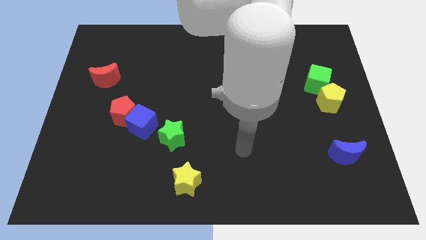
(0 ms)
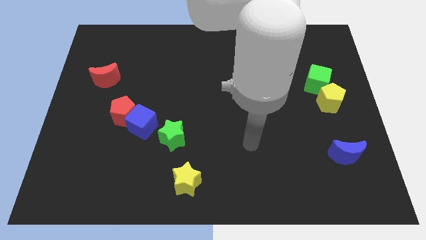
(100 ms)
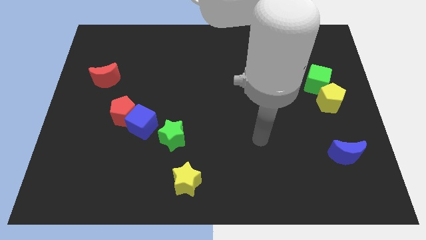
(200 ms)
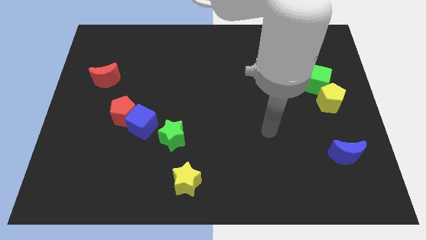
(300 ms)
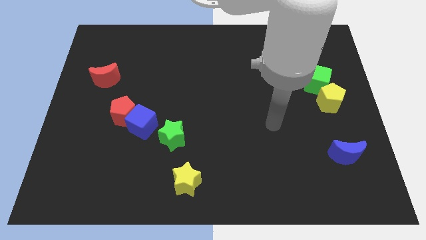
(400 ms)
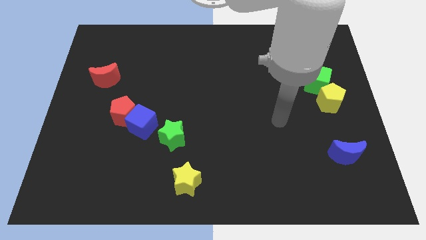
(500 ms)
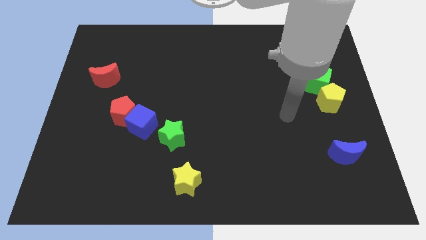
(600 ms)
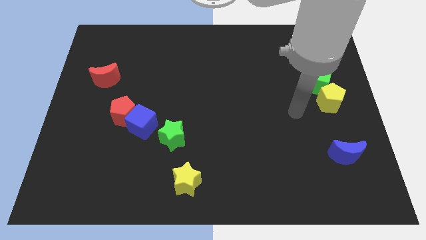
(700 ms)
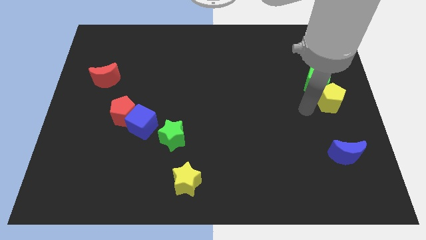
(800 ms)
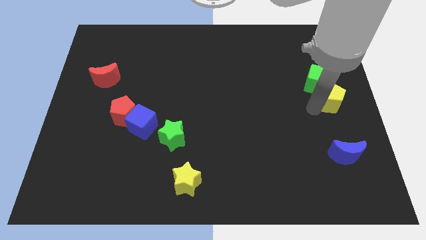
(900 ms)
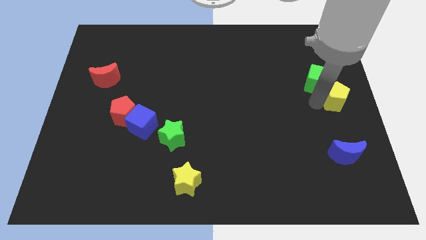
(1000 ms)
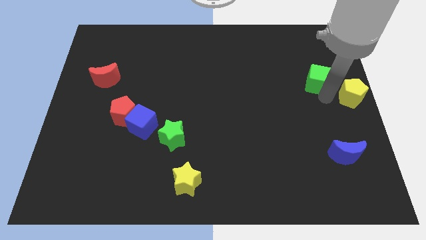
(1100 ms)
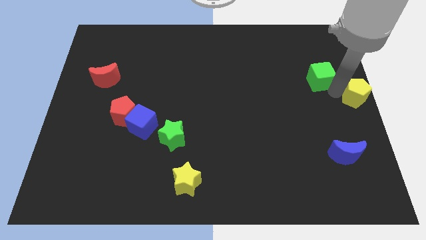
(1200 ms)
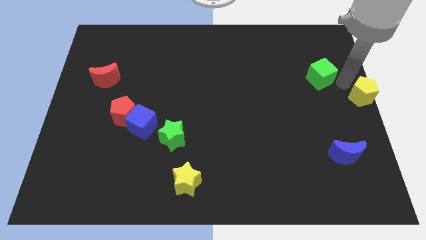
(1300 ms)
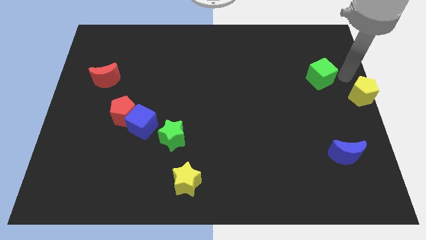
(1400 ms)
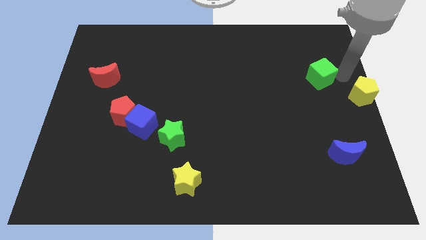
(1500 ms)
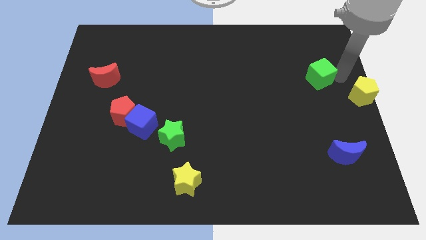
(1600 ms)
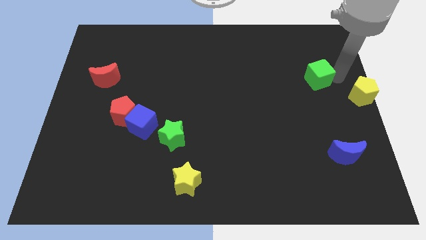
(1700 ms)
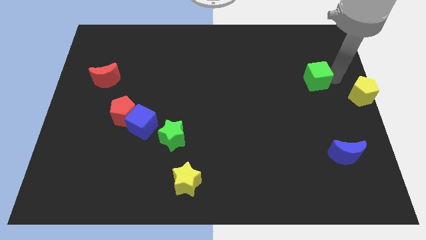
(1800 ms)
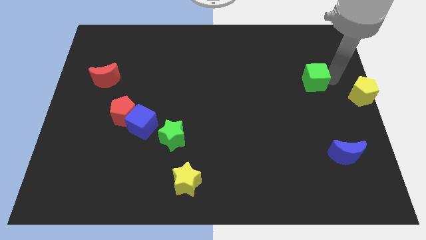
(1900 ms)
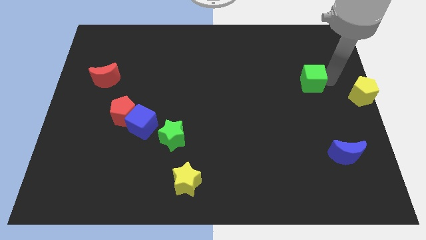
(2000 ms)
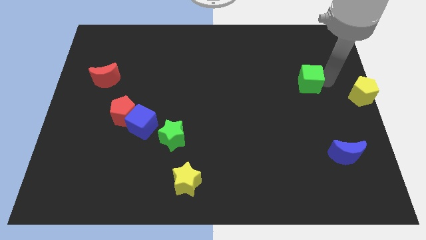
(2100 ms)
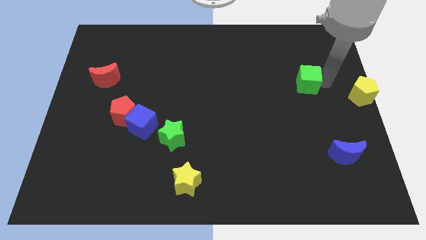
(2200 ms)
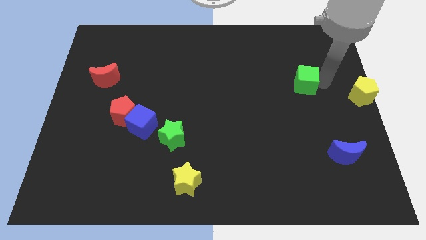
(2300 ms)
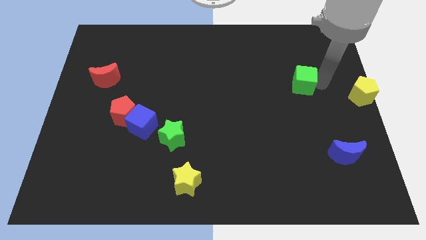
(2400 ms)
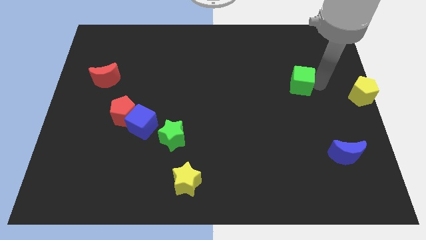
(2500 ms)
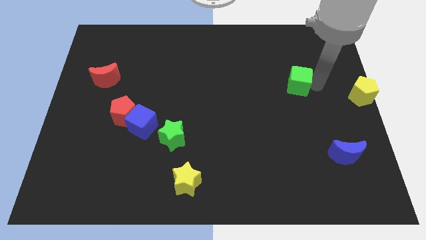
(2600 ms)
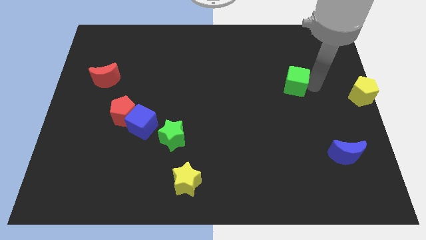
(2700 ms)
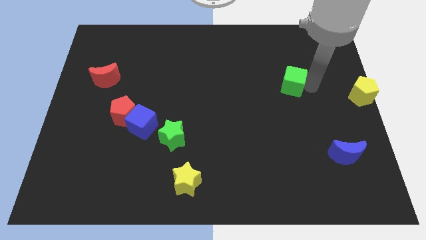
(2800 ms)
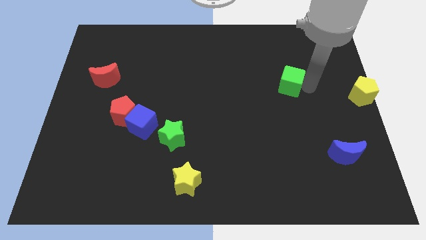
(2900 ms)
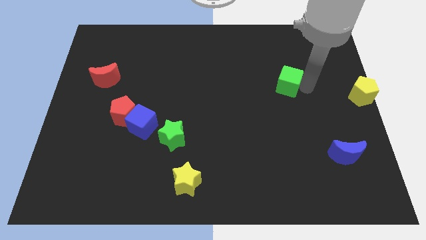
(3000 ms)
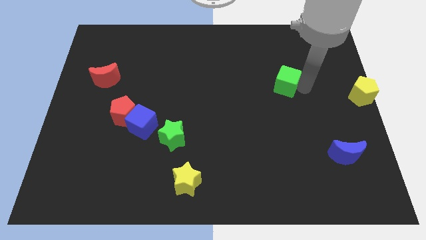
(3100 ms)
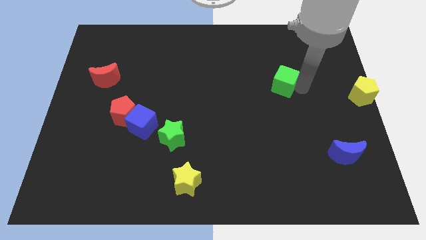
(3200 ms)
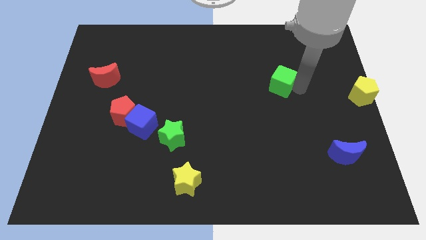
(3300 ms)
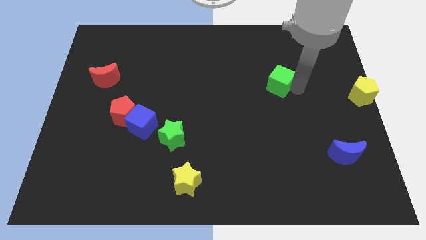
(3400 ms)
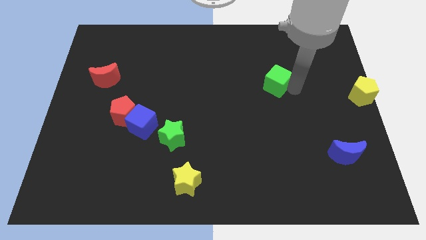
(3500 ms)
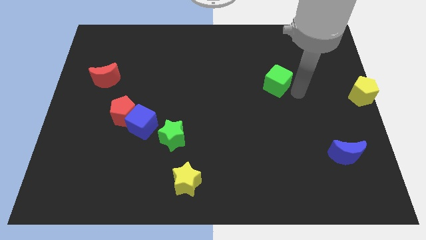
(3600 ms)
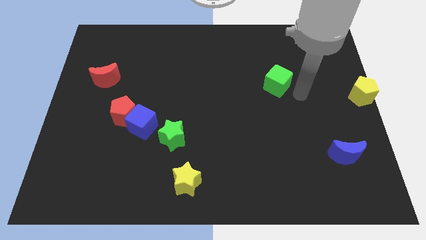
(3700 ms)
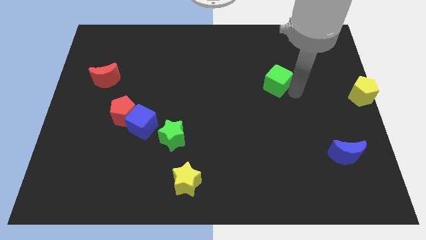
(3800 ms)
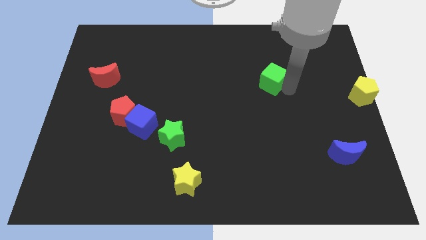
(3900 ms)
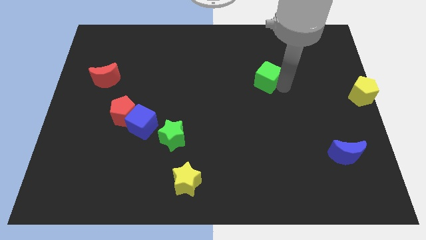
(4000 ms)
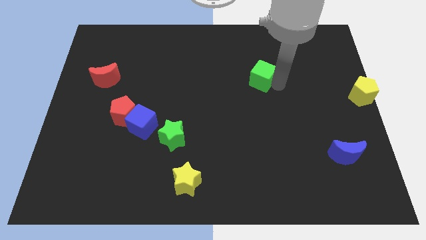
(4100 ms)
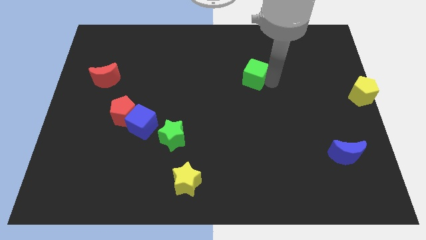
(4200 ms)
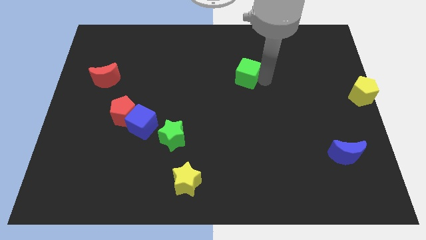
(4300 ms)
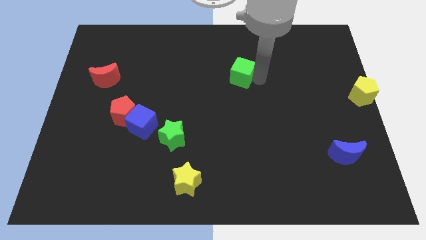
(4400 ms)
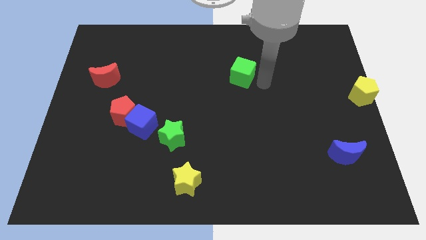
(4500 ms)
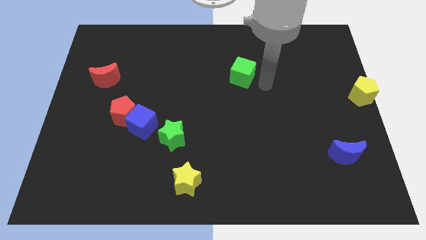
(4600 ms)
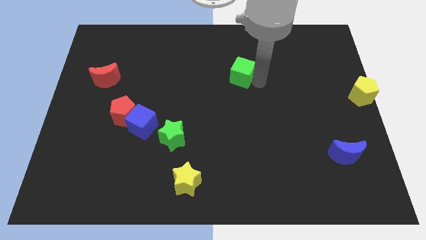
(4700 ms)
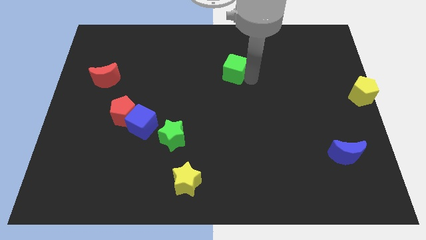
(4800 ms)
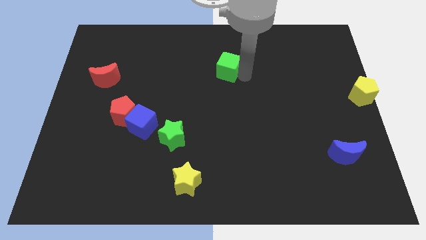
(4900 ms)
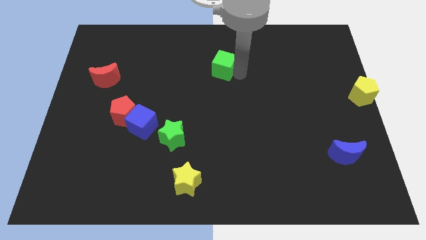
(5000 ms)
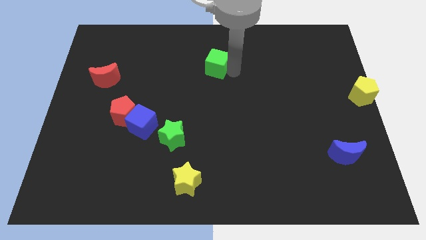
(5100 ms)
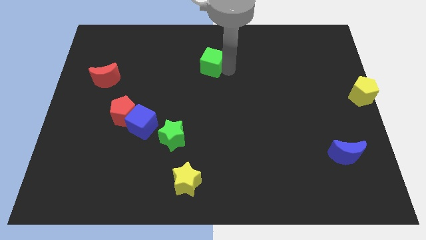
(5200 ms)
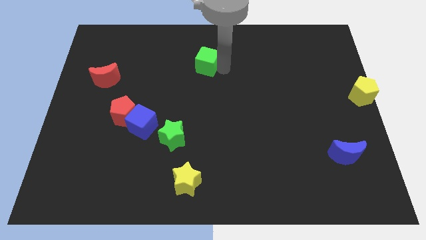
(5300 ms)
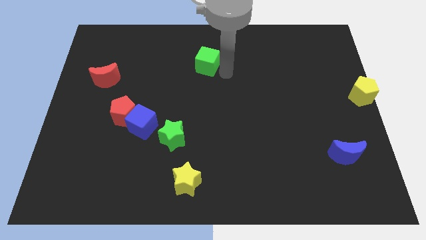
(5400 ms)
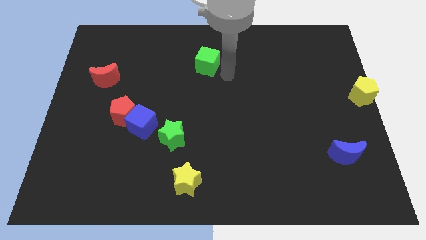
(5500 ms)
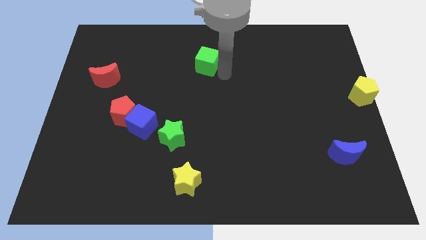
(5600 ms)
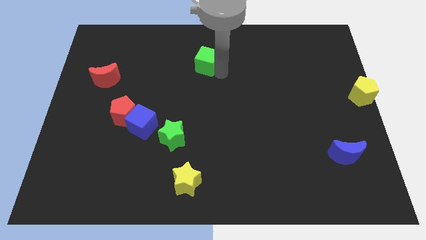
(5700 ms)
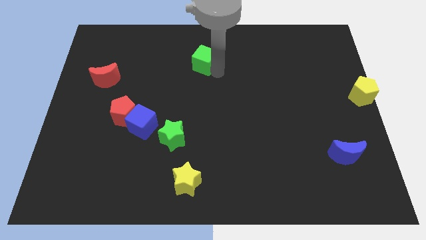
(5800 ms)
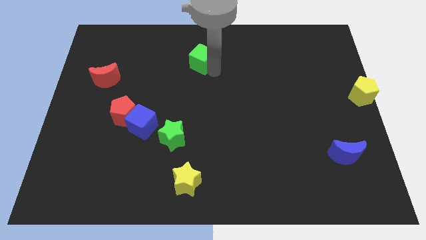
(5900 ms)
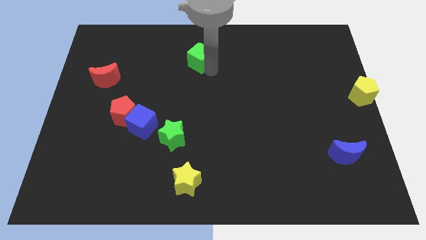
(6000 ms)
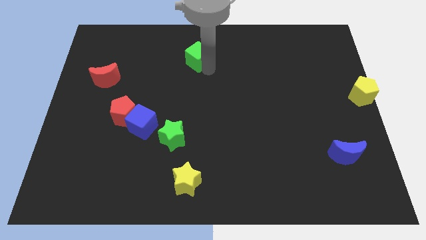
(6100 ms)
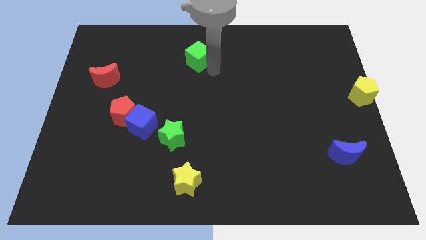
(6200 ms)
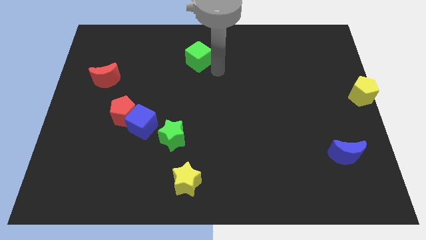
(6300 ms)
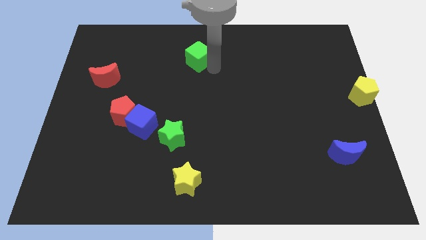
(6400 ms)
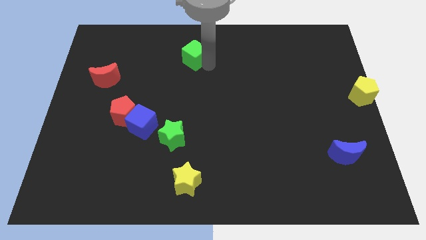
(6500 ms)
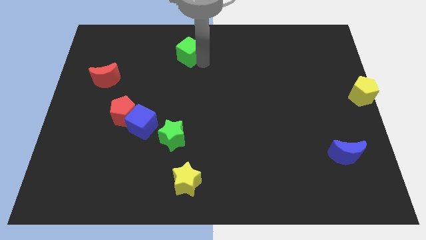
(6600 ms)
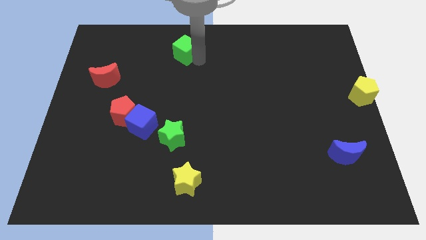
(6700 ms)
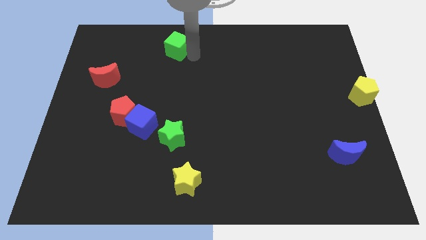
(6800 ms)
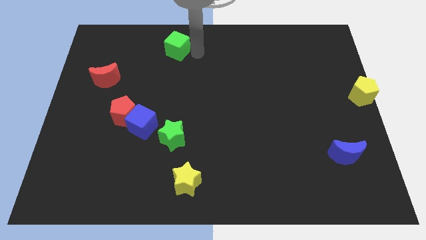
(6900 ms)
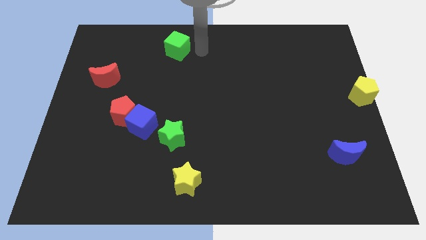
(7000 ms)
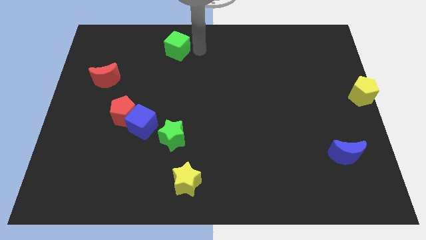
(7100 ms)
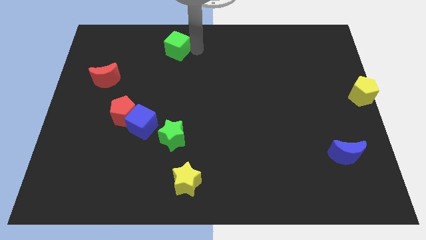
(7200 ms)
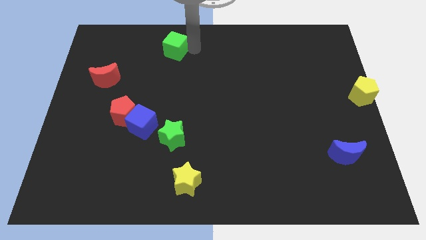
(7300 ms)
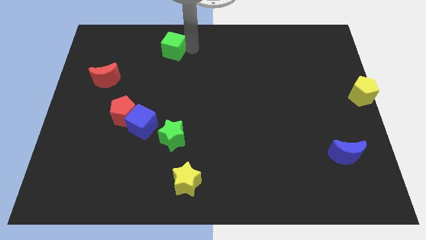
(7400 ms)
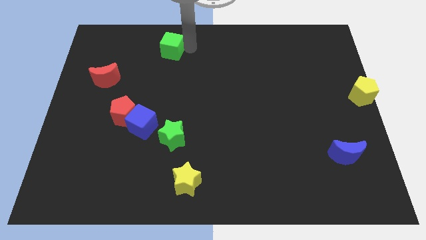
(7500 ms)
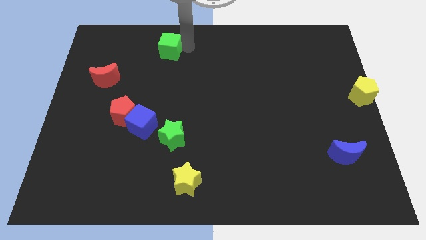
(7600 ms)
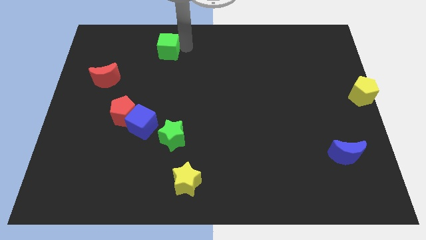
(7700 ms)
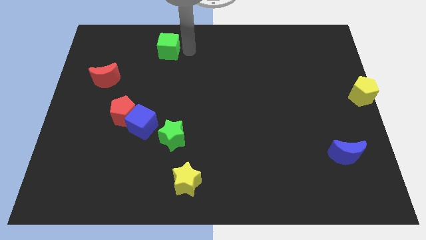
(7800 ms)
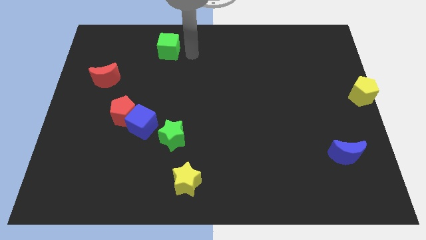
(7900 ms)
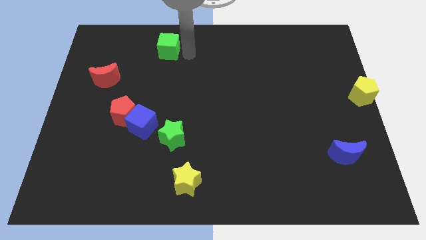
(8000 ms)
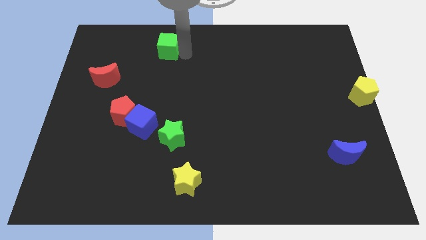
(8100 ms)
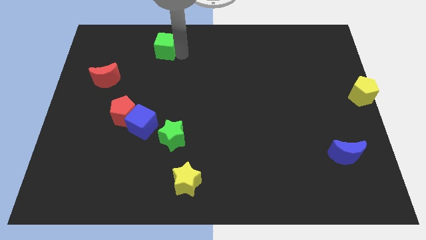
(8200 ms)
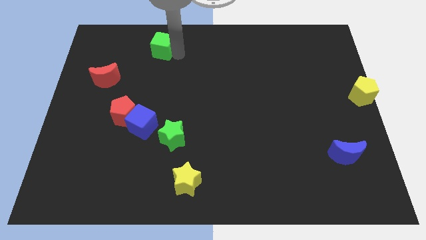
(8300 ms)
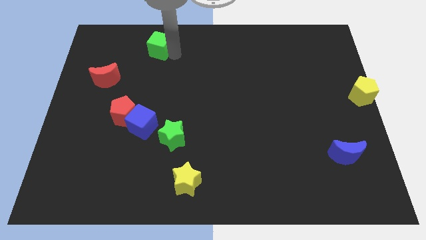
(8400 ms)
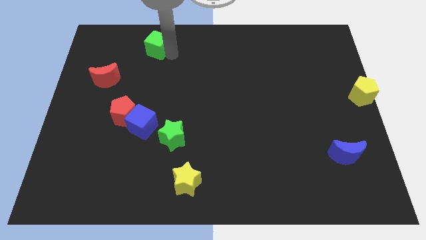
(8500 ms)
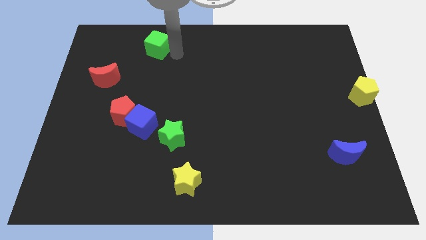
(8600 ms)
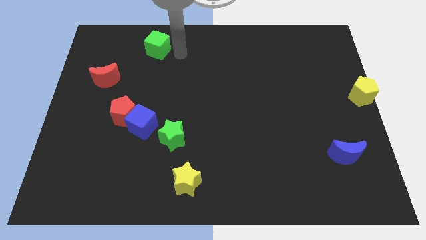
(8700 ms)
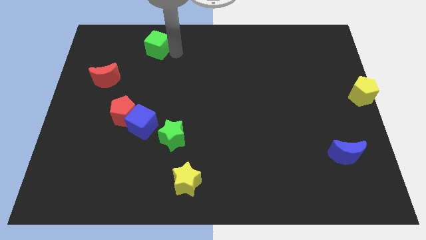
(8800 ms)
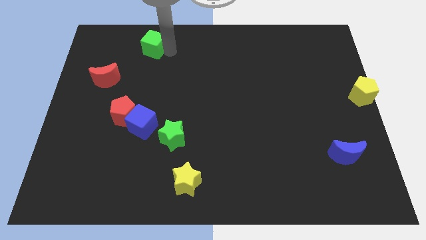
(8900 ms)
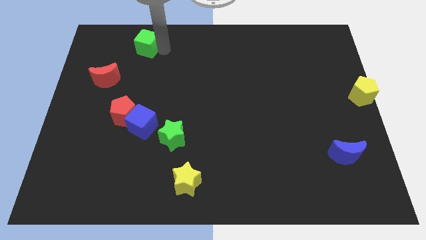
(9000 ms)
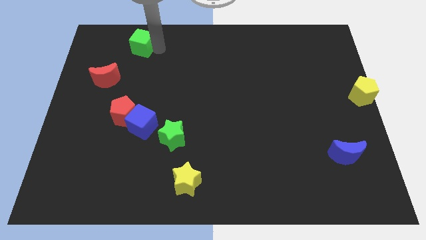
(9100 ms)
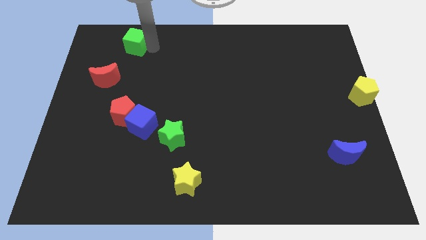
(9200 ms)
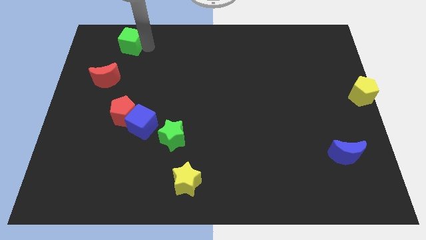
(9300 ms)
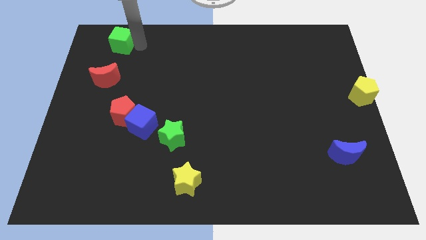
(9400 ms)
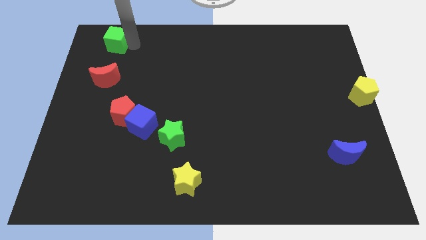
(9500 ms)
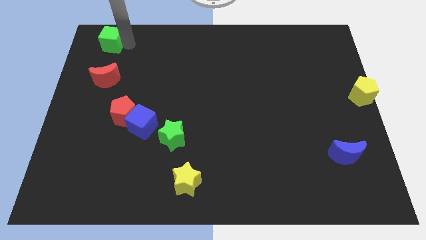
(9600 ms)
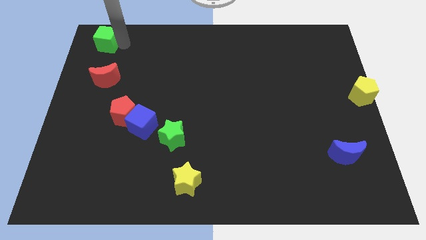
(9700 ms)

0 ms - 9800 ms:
slide the green cube to the top left of the board
